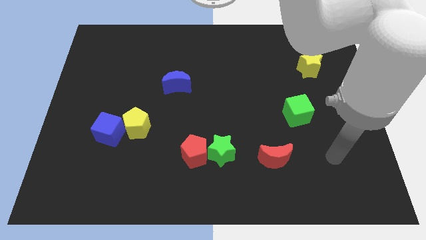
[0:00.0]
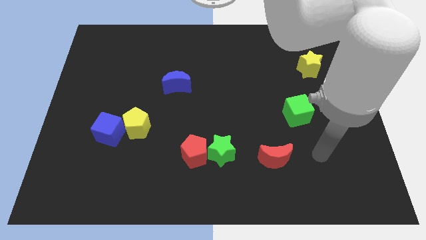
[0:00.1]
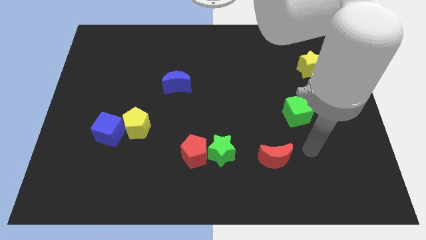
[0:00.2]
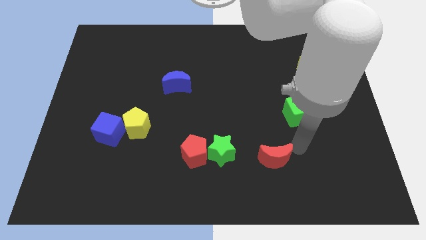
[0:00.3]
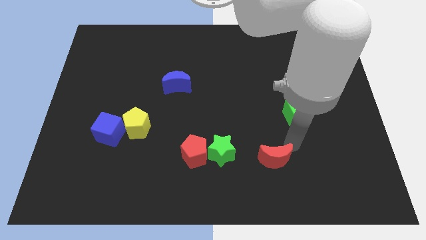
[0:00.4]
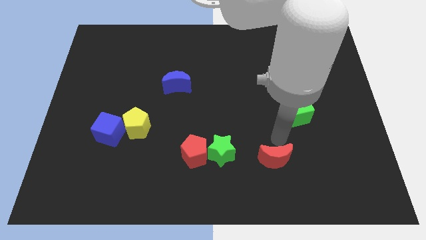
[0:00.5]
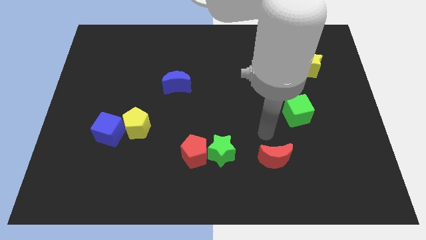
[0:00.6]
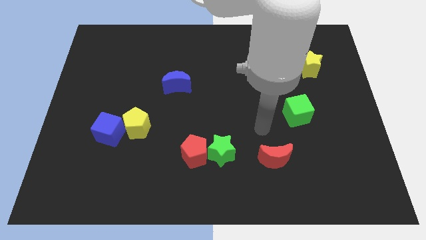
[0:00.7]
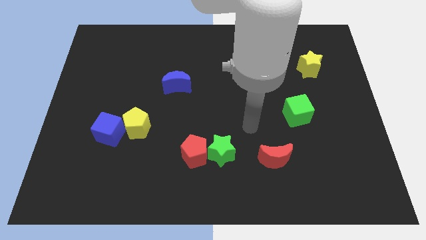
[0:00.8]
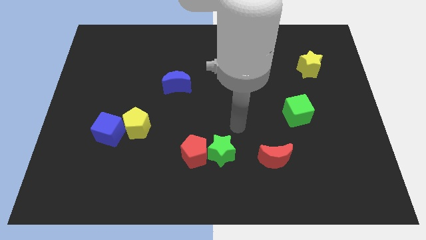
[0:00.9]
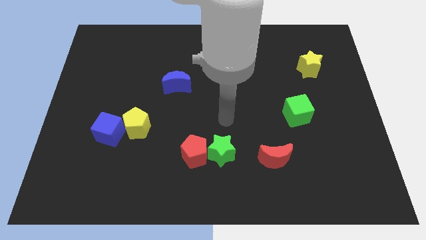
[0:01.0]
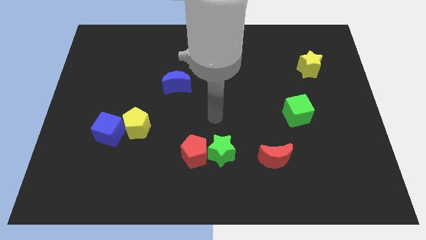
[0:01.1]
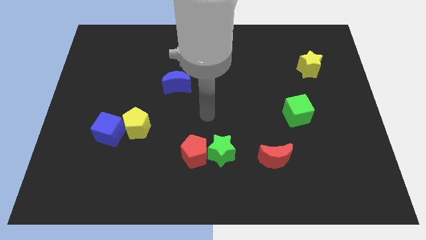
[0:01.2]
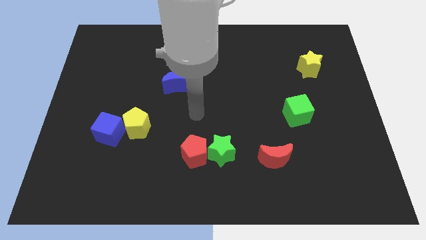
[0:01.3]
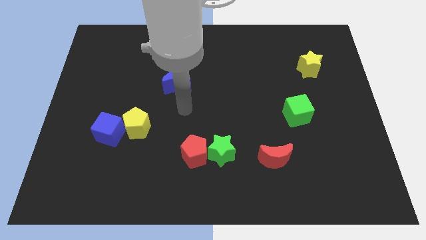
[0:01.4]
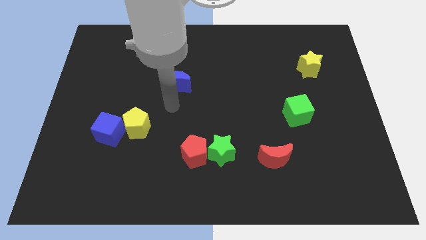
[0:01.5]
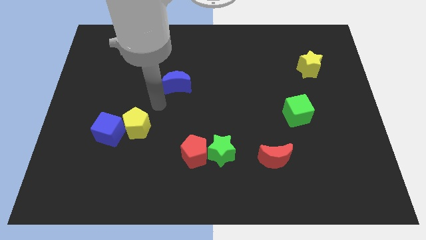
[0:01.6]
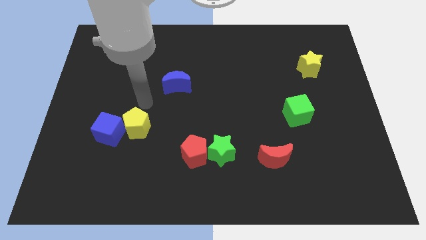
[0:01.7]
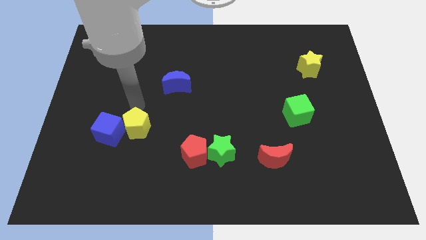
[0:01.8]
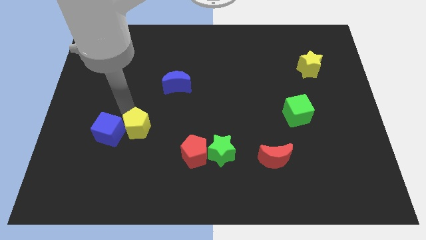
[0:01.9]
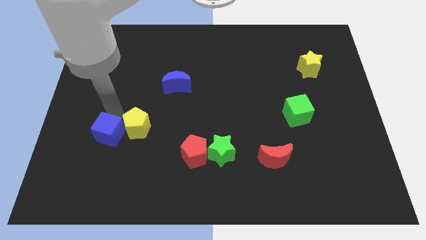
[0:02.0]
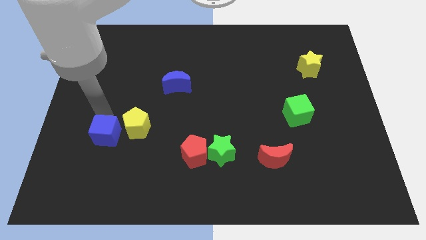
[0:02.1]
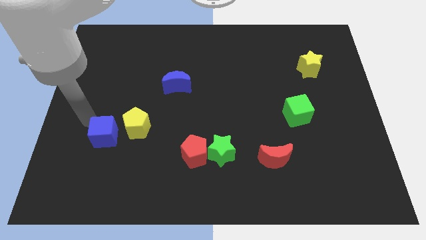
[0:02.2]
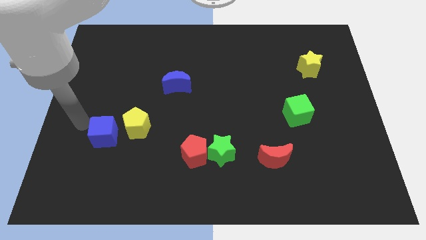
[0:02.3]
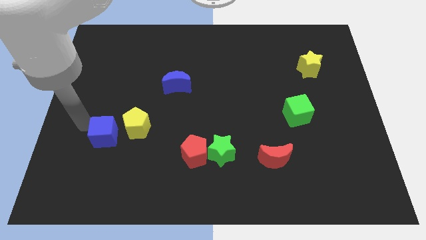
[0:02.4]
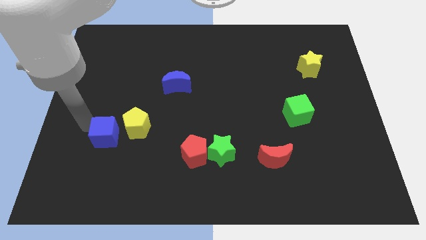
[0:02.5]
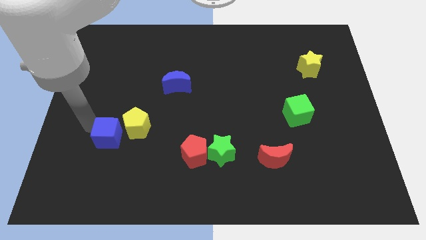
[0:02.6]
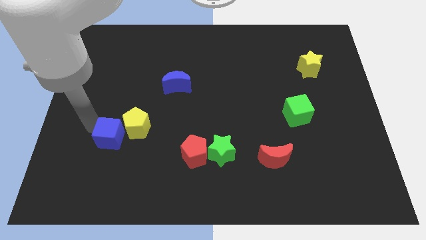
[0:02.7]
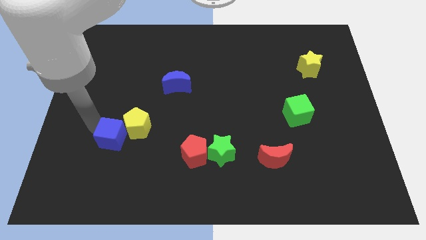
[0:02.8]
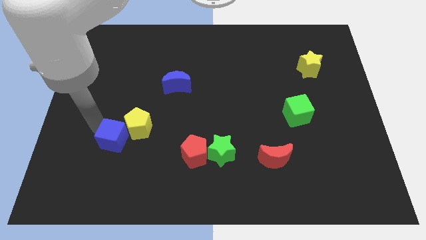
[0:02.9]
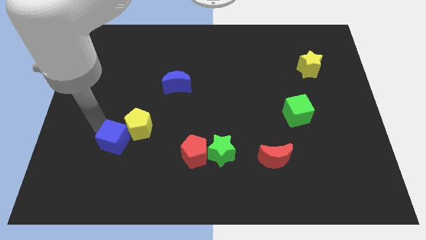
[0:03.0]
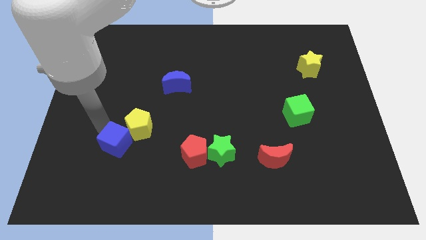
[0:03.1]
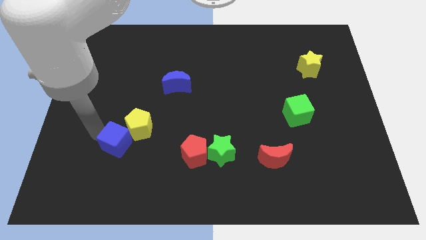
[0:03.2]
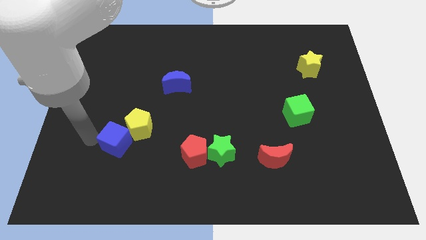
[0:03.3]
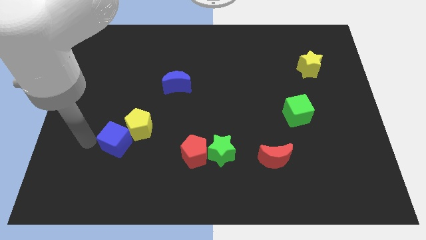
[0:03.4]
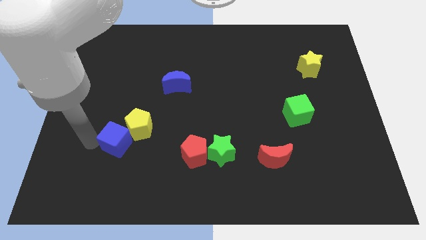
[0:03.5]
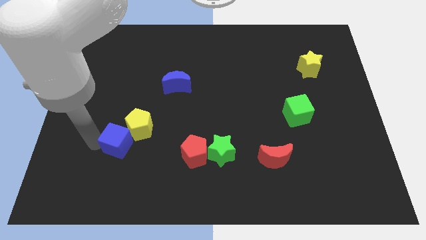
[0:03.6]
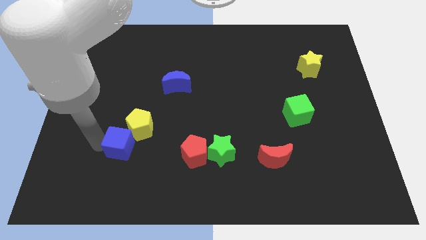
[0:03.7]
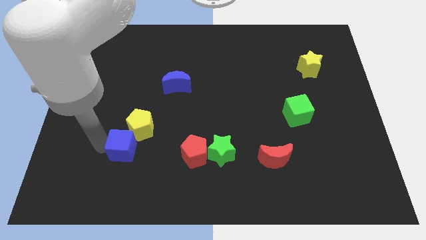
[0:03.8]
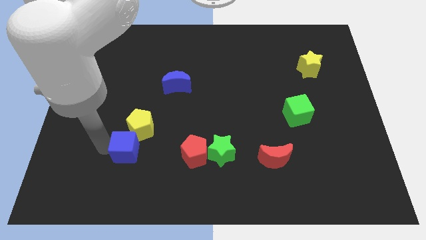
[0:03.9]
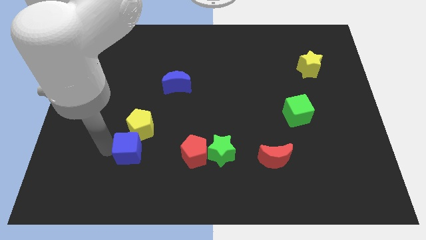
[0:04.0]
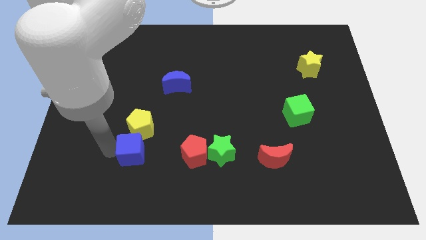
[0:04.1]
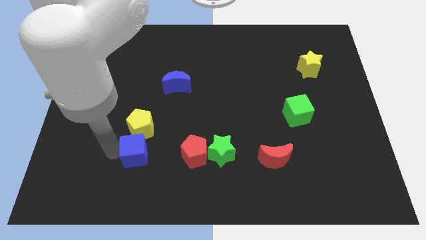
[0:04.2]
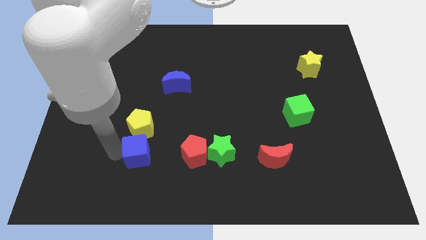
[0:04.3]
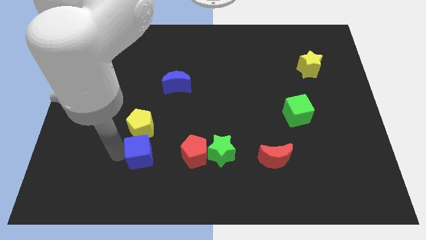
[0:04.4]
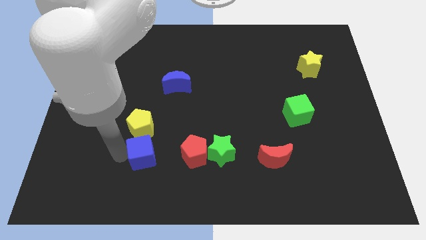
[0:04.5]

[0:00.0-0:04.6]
slightly move the blue cube to the right

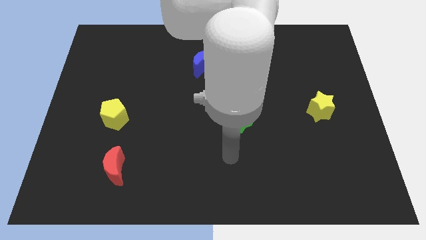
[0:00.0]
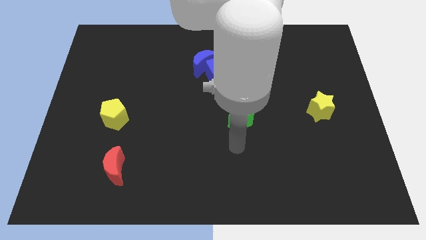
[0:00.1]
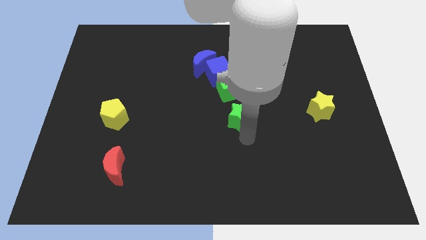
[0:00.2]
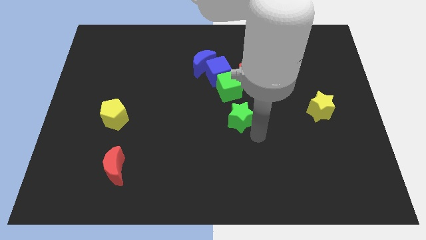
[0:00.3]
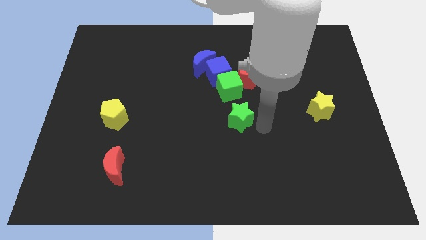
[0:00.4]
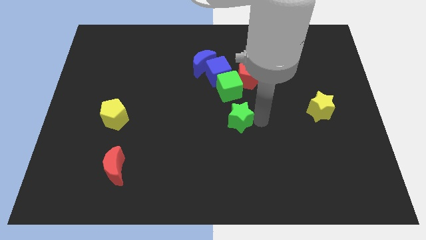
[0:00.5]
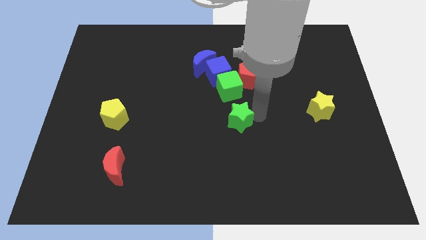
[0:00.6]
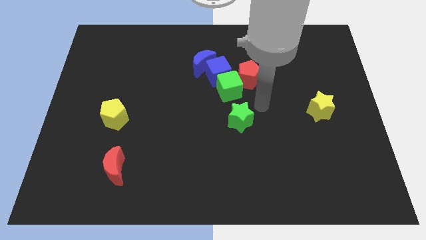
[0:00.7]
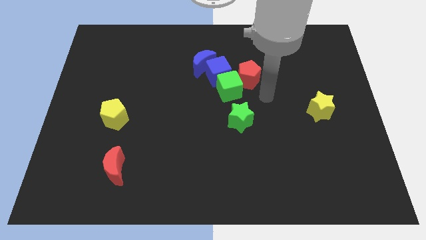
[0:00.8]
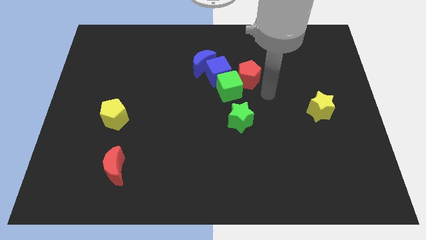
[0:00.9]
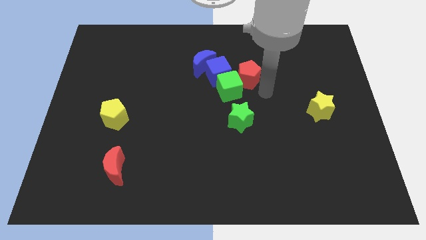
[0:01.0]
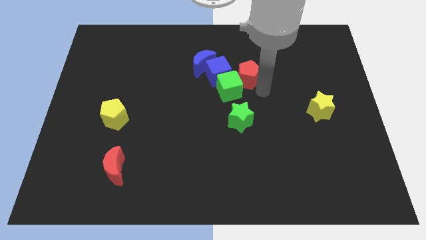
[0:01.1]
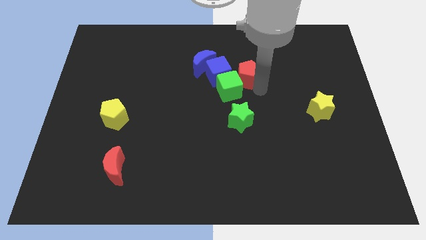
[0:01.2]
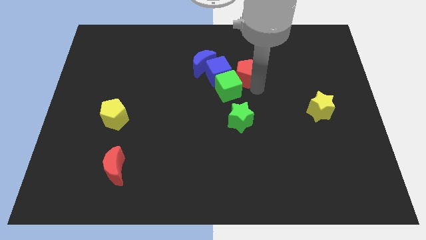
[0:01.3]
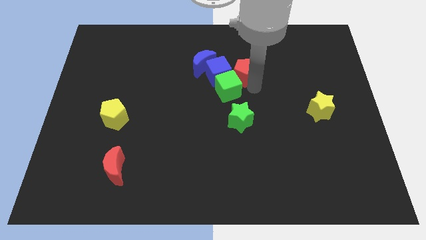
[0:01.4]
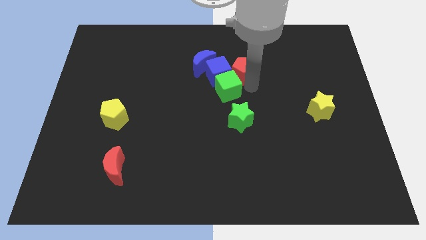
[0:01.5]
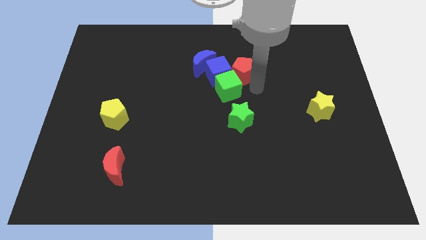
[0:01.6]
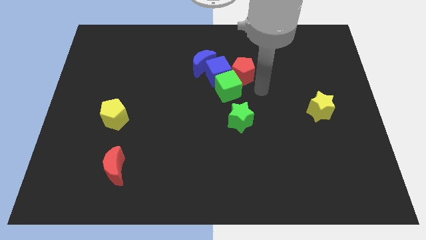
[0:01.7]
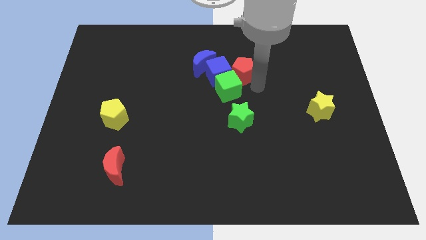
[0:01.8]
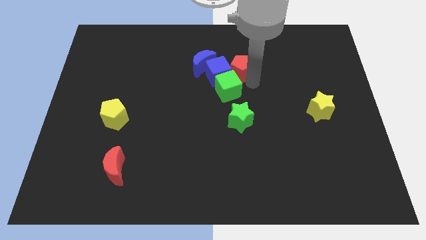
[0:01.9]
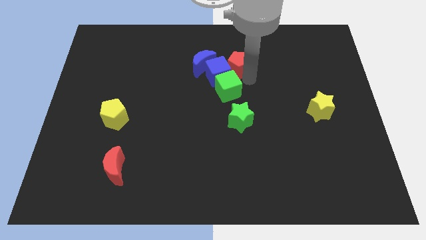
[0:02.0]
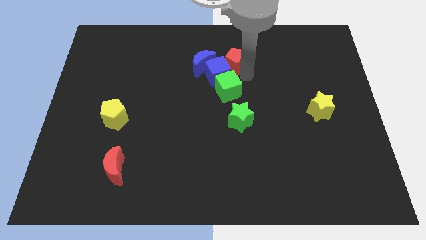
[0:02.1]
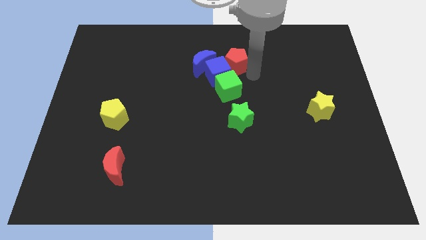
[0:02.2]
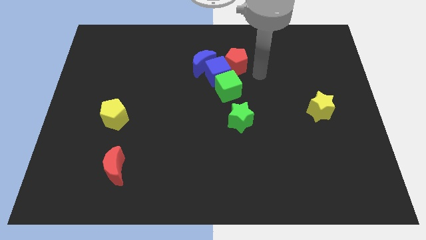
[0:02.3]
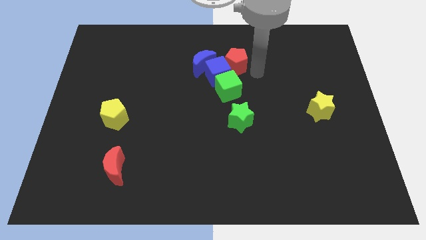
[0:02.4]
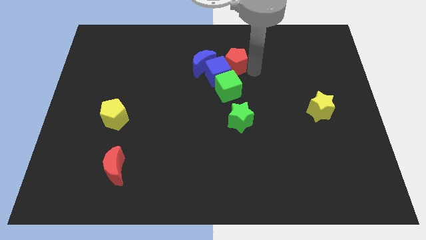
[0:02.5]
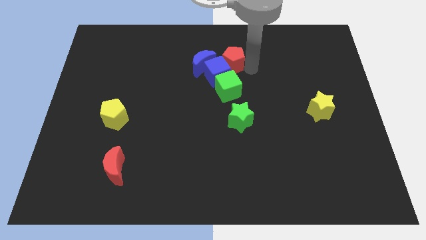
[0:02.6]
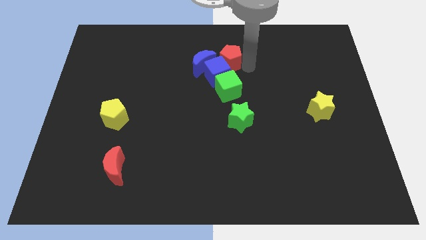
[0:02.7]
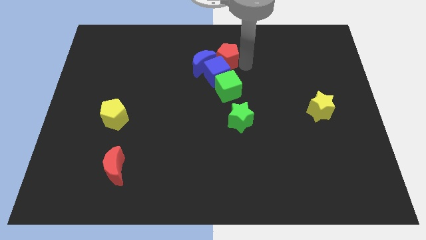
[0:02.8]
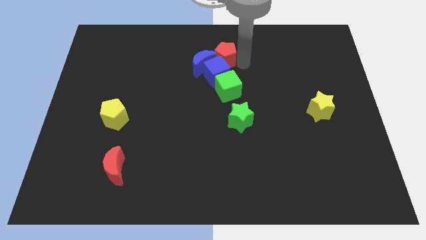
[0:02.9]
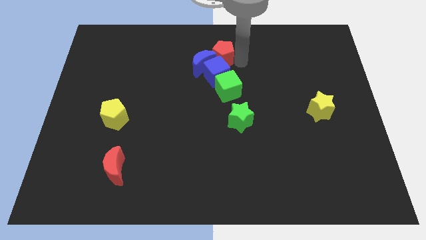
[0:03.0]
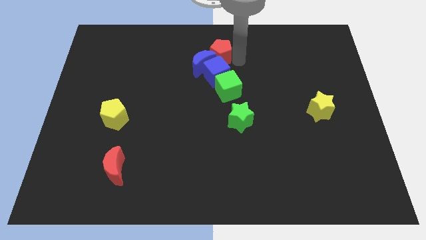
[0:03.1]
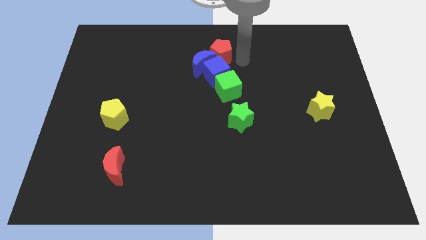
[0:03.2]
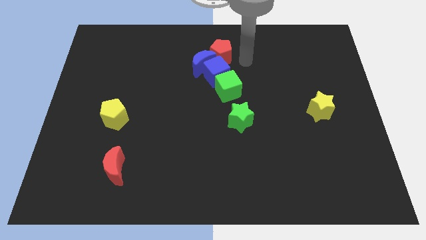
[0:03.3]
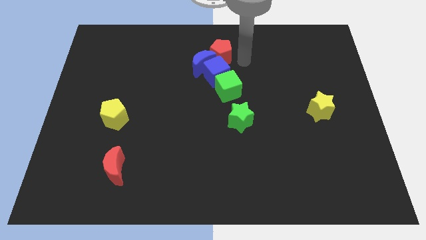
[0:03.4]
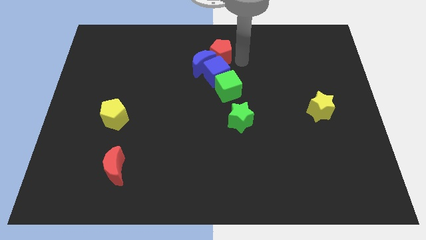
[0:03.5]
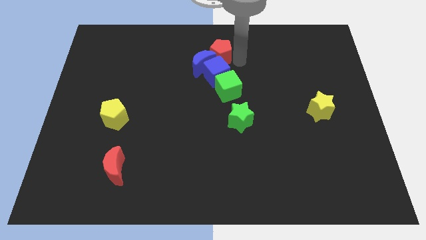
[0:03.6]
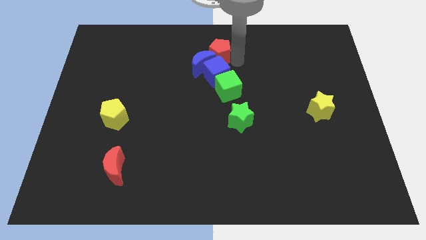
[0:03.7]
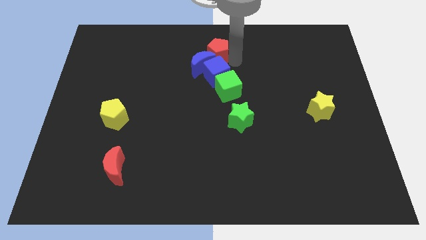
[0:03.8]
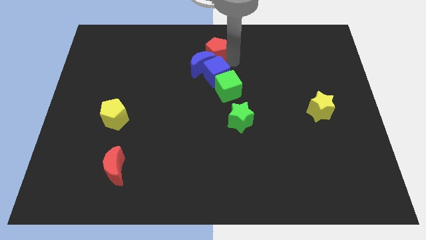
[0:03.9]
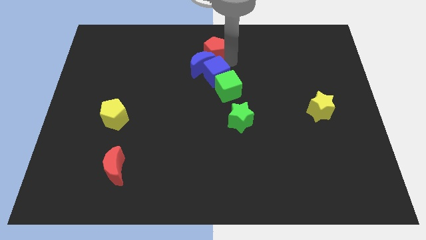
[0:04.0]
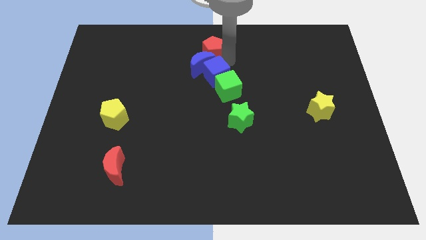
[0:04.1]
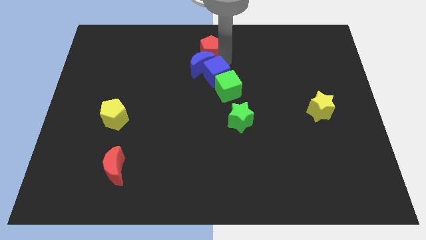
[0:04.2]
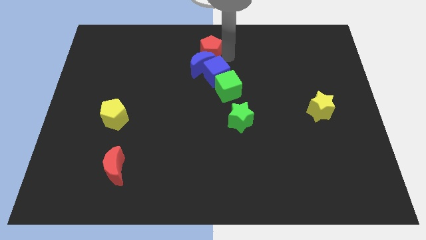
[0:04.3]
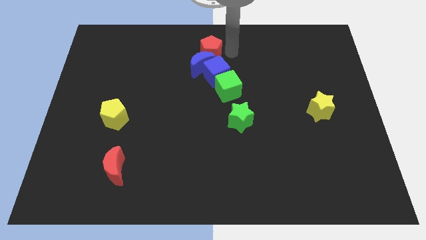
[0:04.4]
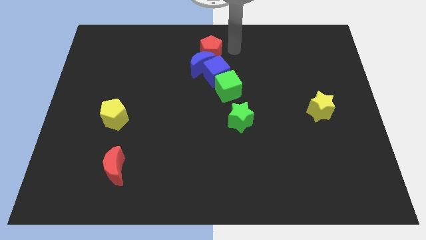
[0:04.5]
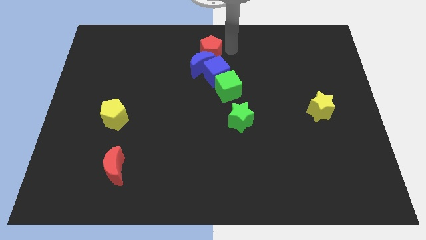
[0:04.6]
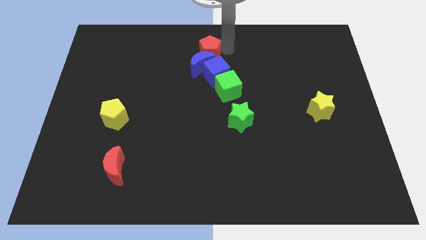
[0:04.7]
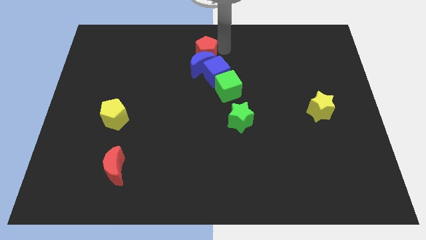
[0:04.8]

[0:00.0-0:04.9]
slightly push the red pentagon left
